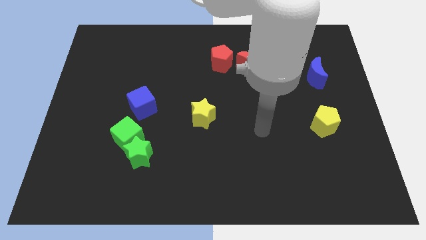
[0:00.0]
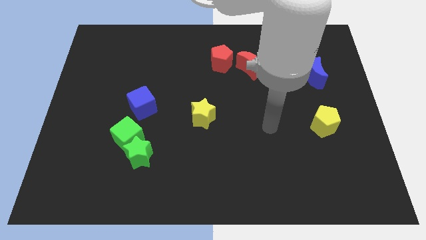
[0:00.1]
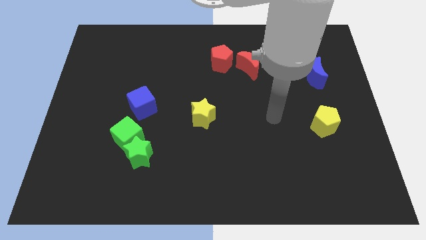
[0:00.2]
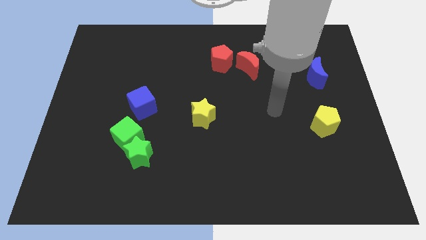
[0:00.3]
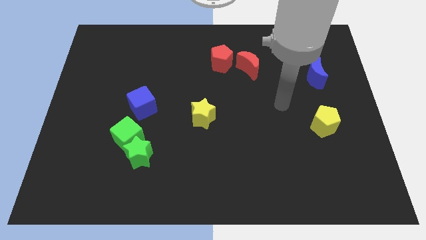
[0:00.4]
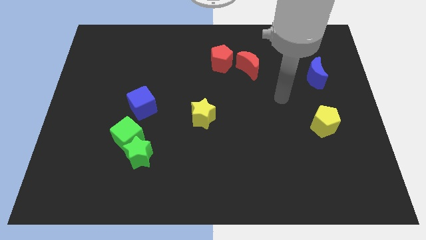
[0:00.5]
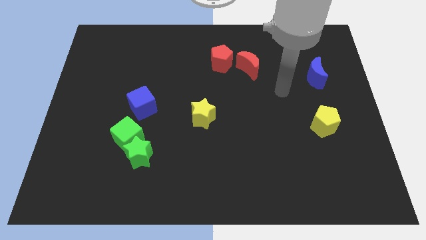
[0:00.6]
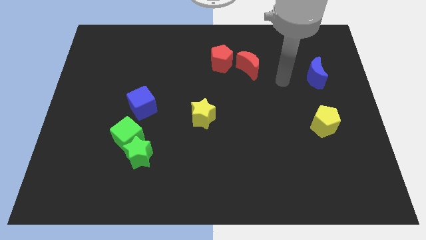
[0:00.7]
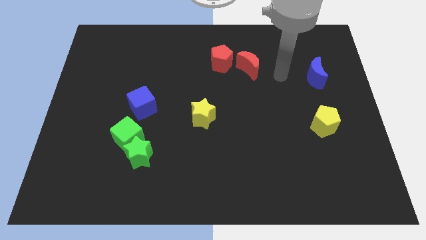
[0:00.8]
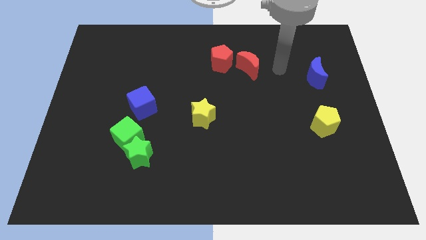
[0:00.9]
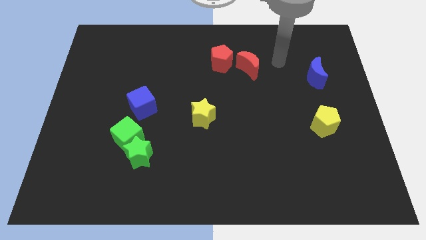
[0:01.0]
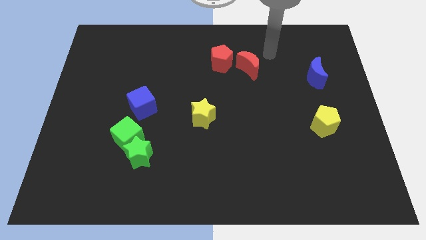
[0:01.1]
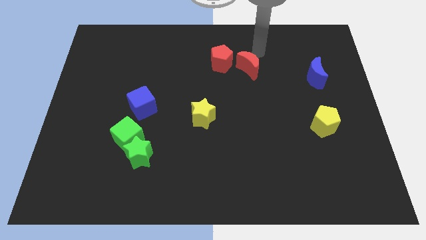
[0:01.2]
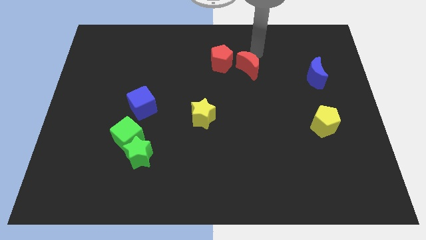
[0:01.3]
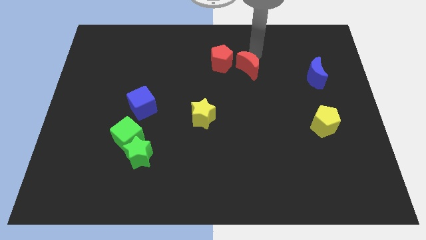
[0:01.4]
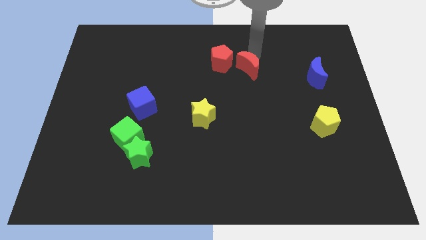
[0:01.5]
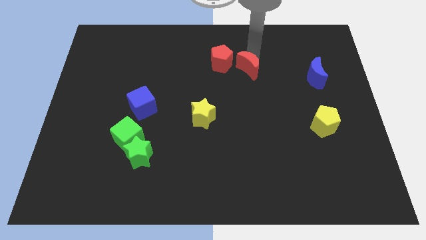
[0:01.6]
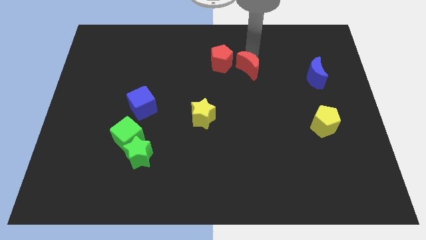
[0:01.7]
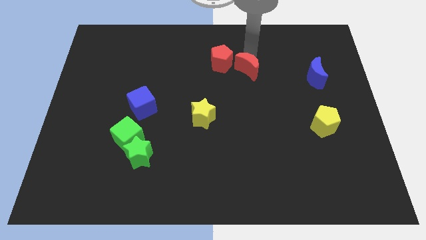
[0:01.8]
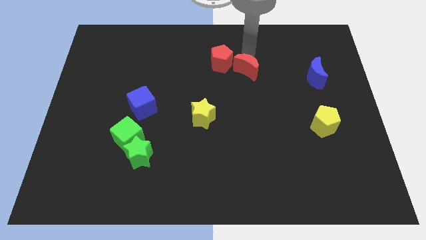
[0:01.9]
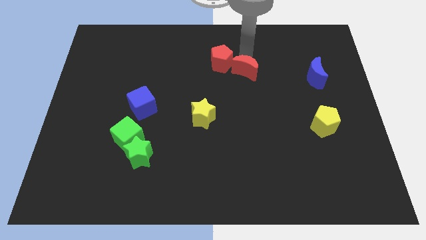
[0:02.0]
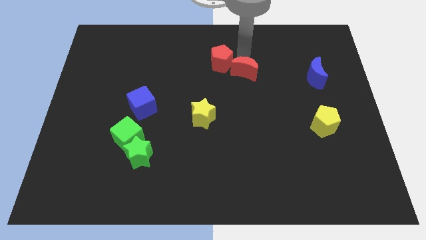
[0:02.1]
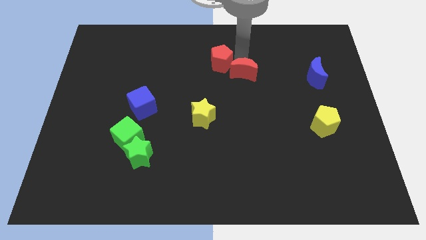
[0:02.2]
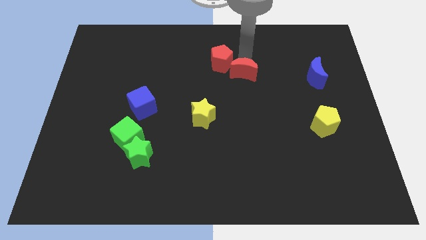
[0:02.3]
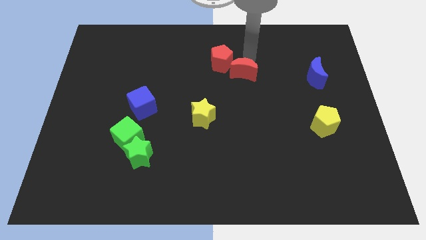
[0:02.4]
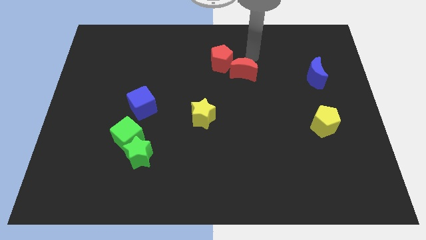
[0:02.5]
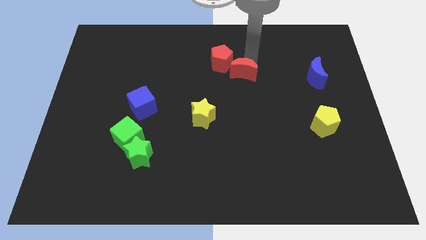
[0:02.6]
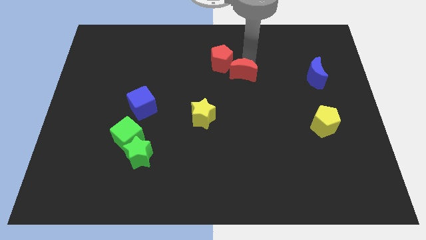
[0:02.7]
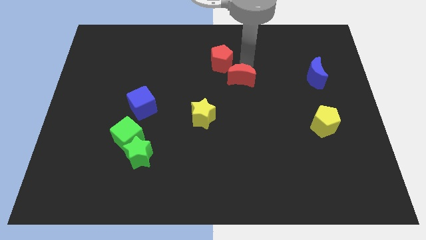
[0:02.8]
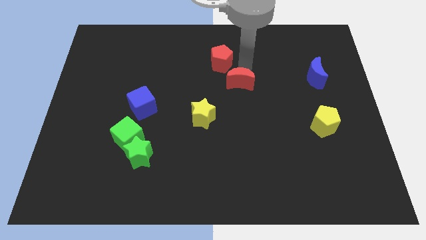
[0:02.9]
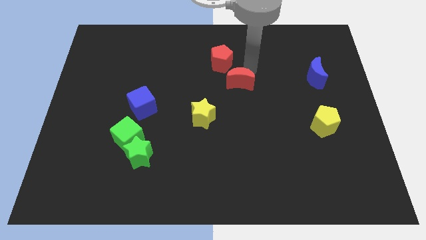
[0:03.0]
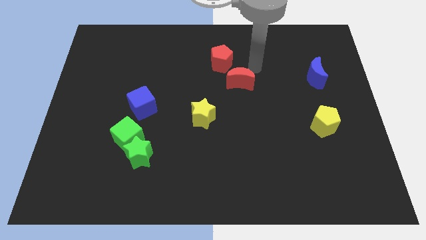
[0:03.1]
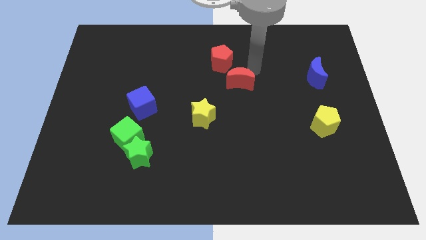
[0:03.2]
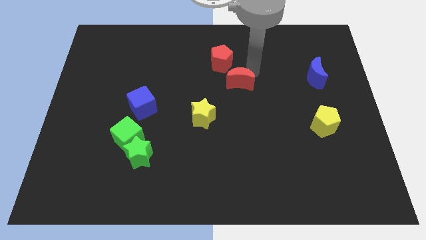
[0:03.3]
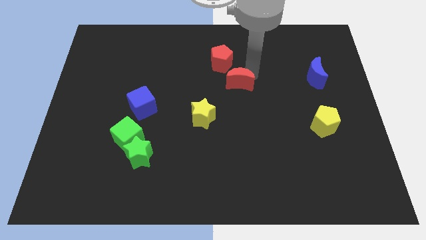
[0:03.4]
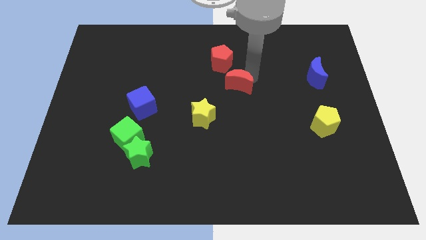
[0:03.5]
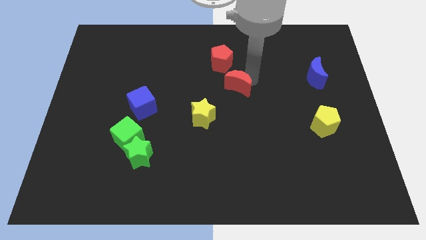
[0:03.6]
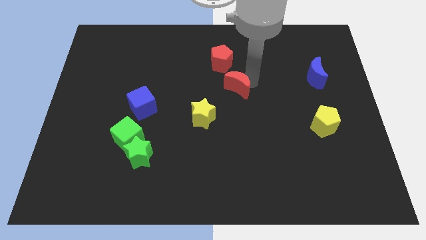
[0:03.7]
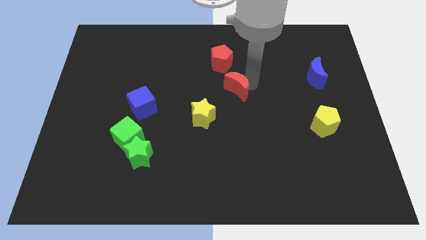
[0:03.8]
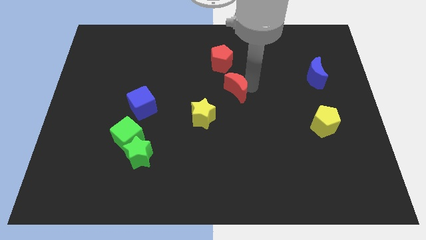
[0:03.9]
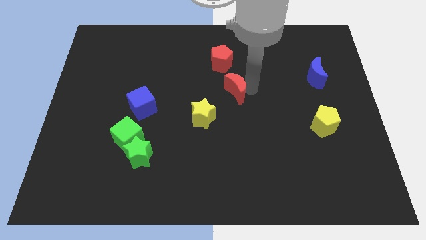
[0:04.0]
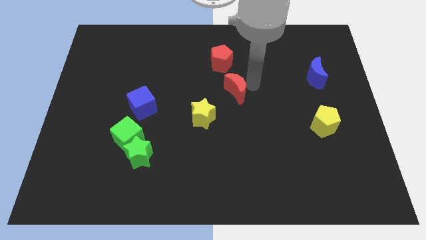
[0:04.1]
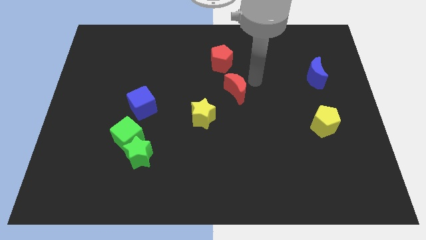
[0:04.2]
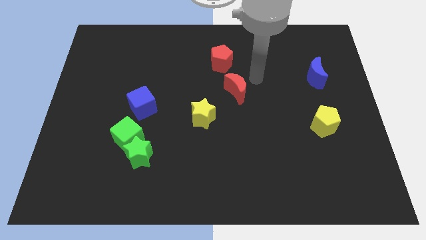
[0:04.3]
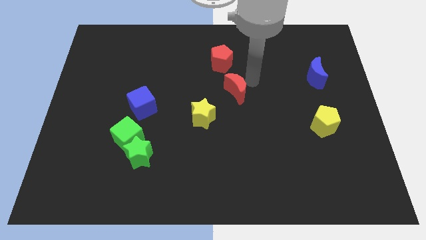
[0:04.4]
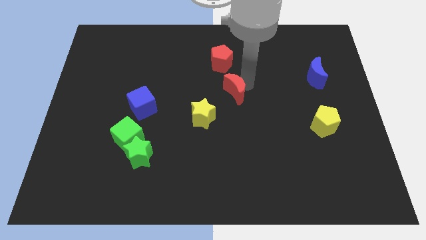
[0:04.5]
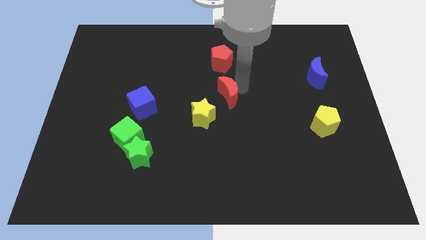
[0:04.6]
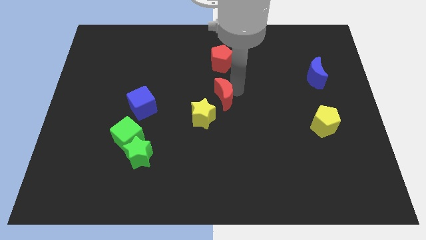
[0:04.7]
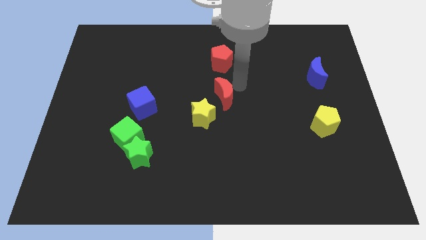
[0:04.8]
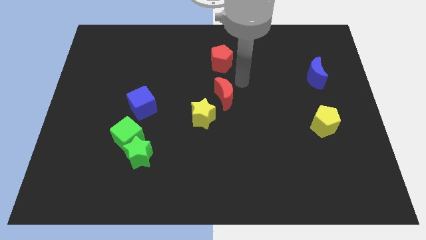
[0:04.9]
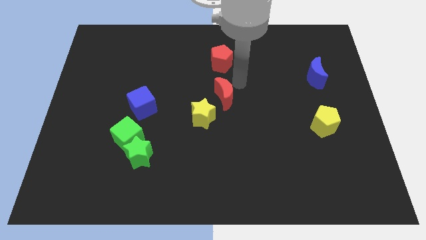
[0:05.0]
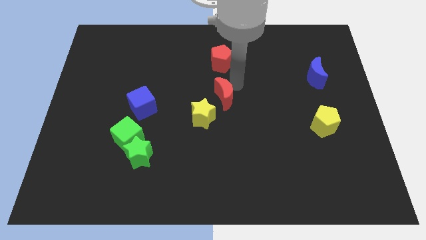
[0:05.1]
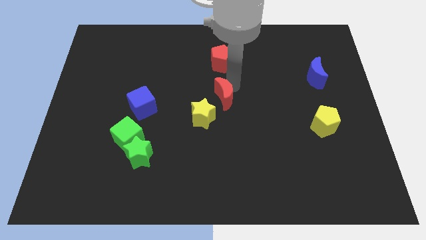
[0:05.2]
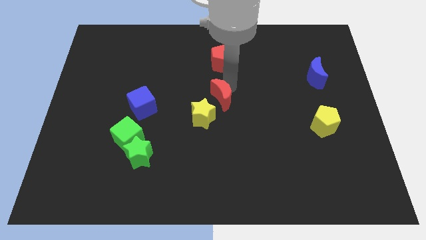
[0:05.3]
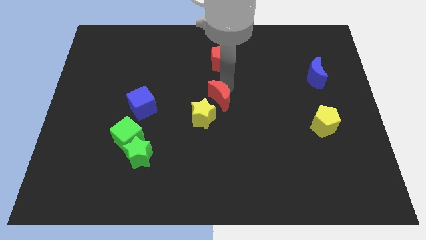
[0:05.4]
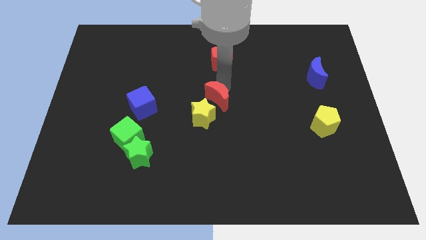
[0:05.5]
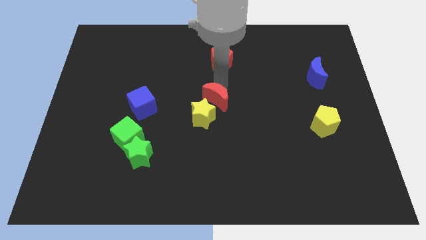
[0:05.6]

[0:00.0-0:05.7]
move the red moon to the yellow star

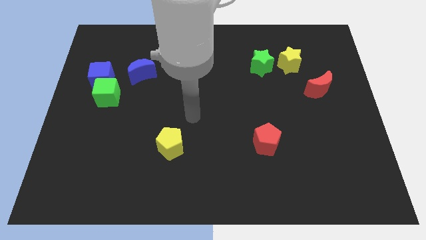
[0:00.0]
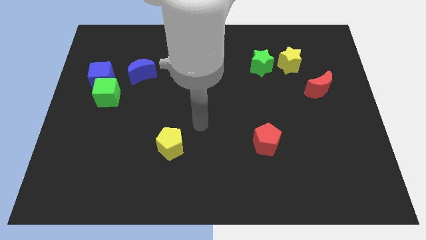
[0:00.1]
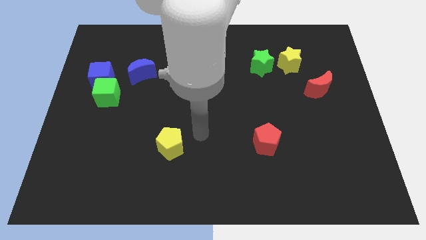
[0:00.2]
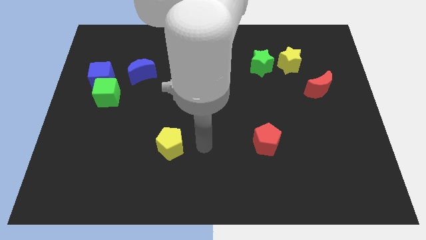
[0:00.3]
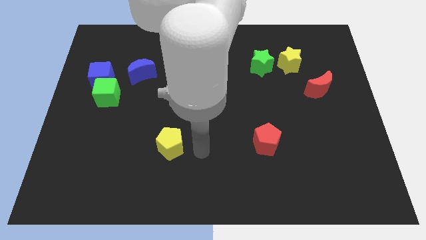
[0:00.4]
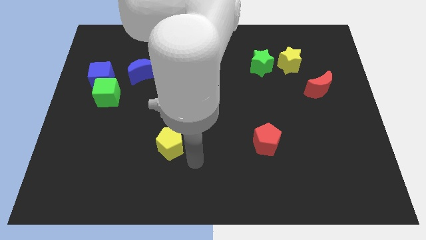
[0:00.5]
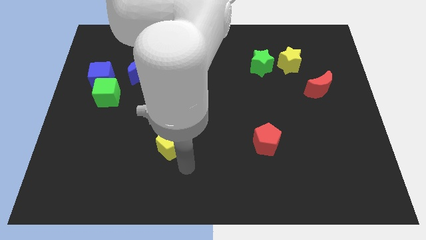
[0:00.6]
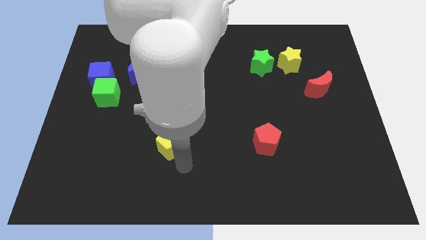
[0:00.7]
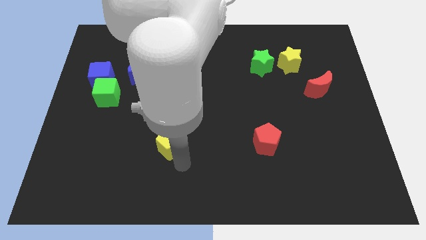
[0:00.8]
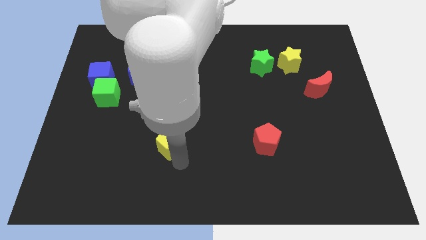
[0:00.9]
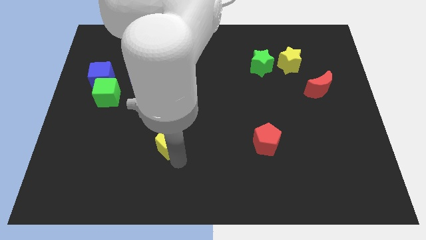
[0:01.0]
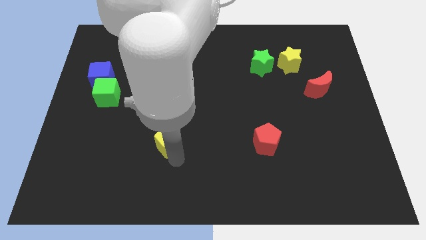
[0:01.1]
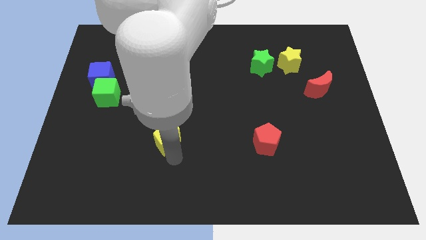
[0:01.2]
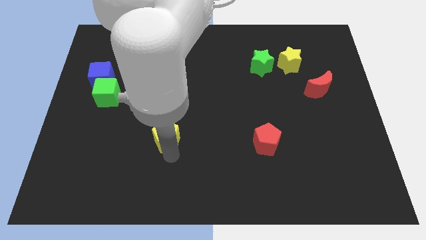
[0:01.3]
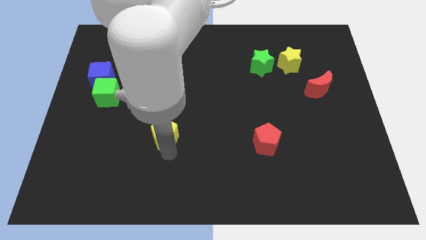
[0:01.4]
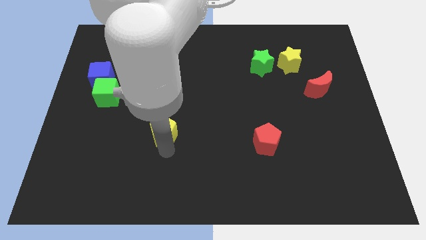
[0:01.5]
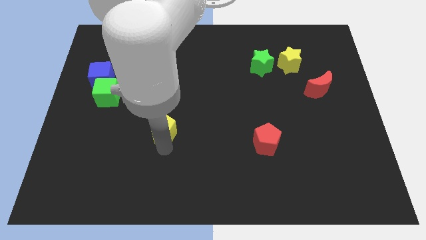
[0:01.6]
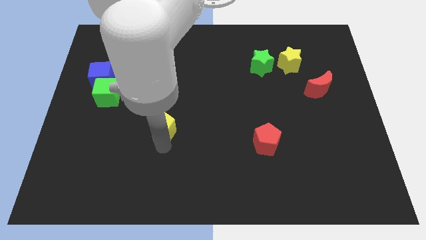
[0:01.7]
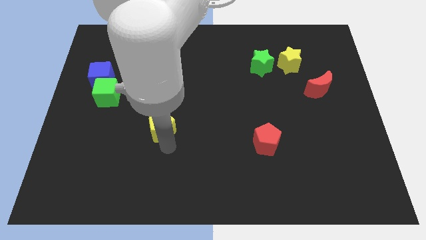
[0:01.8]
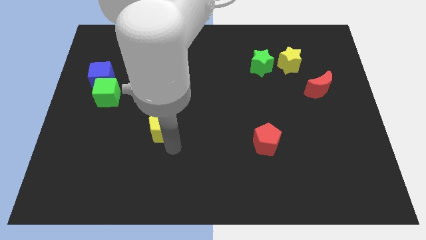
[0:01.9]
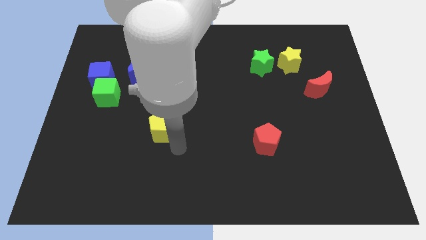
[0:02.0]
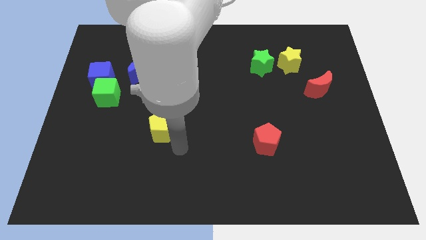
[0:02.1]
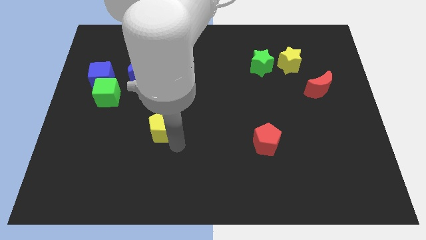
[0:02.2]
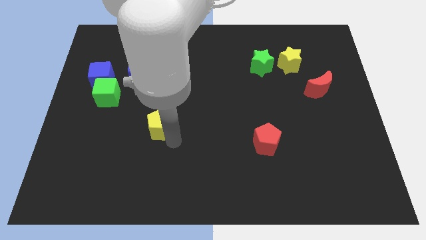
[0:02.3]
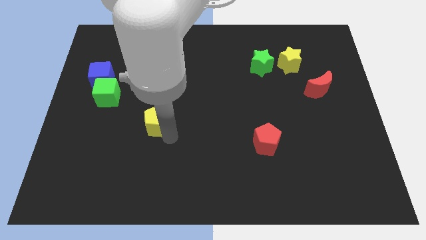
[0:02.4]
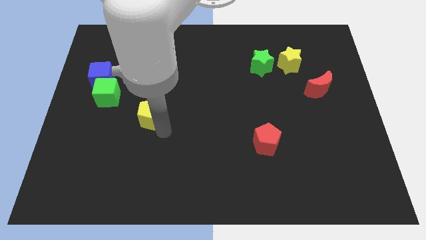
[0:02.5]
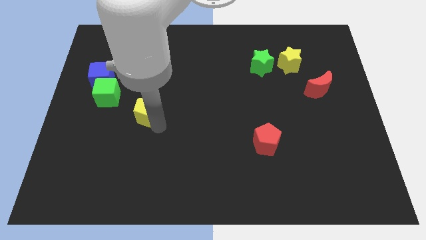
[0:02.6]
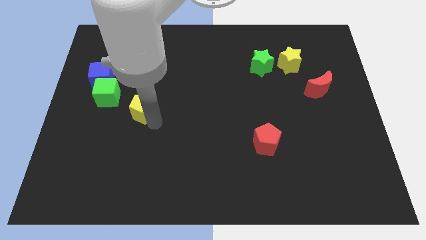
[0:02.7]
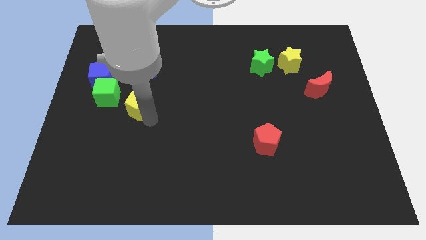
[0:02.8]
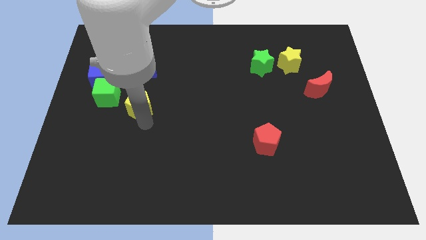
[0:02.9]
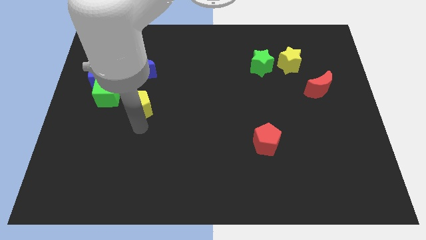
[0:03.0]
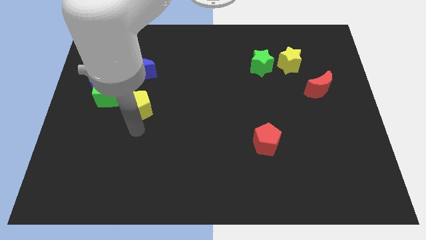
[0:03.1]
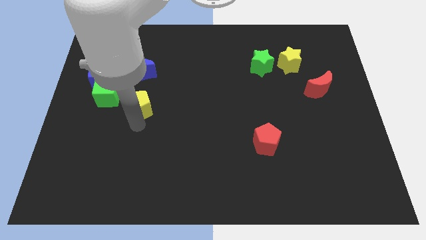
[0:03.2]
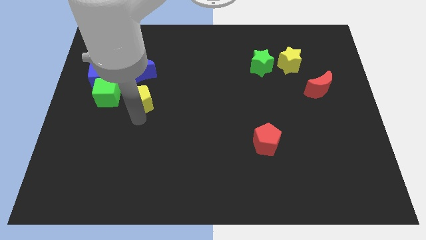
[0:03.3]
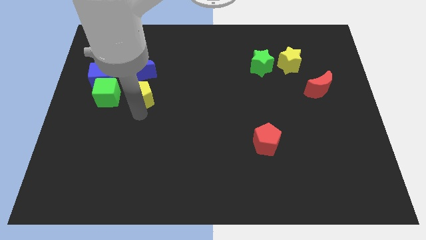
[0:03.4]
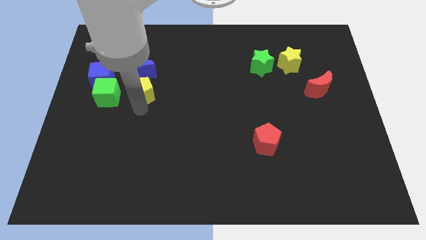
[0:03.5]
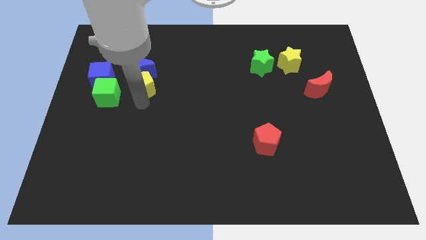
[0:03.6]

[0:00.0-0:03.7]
move the yellow pentagon close to the blue moon
